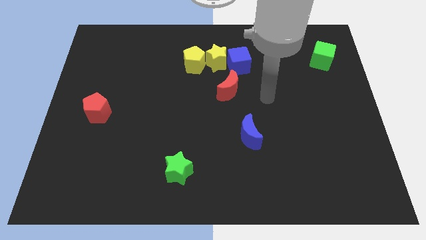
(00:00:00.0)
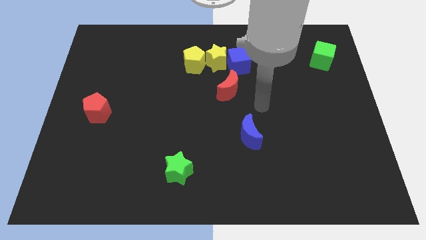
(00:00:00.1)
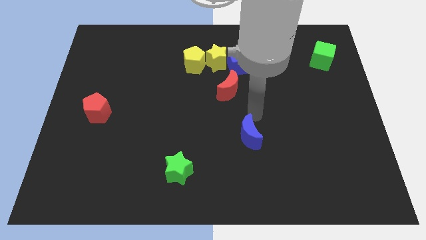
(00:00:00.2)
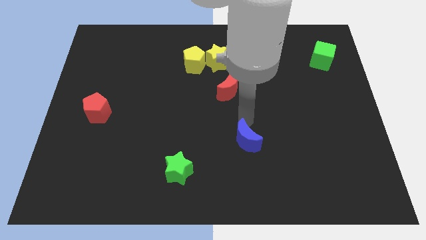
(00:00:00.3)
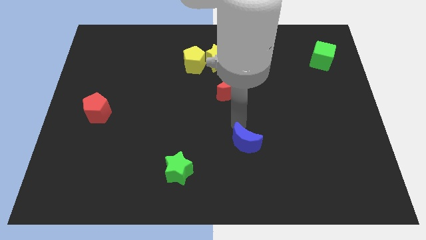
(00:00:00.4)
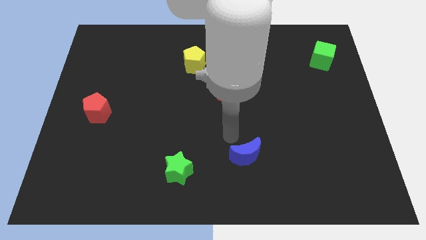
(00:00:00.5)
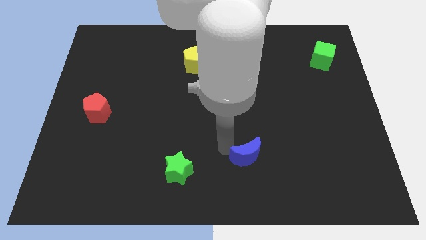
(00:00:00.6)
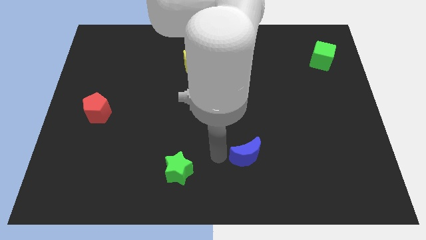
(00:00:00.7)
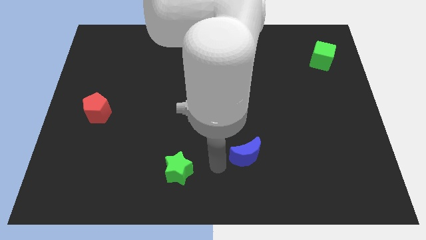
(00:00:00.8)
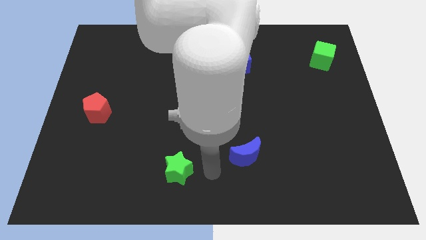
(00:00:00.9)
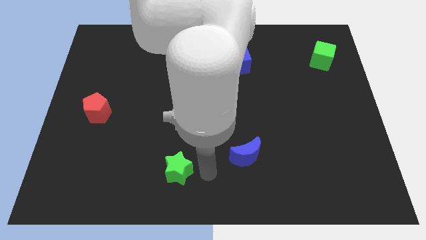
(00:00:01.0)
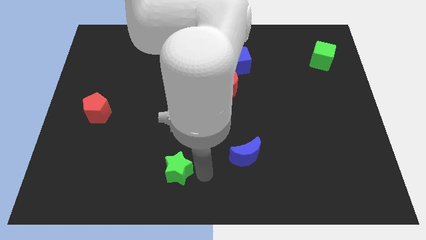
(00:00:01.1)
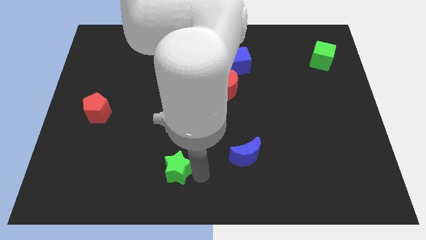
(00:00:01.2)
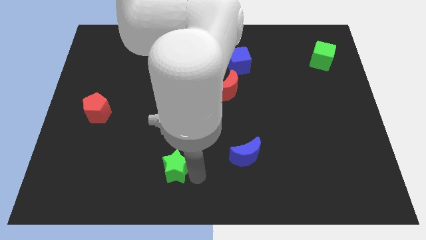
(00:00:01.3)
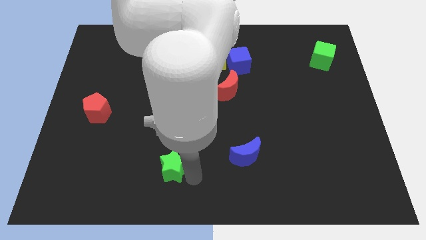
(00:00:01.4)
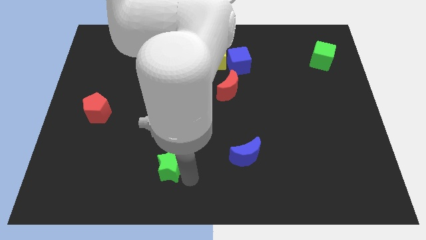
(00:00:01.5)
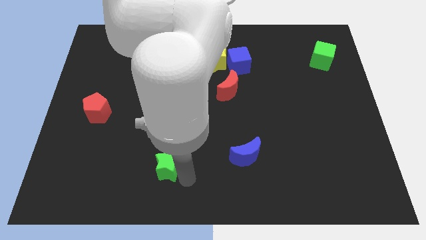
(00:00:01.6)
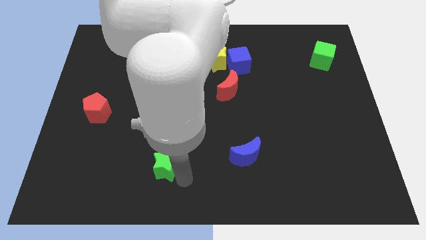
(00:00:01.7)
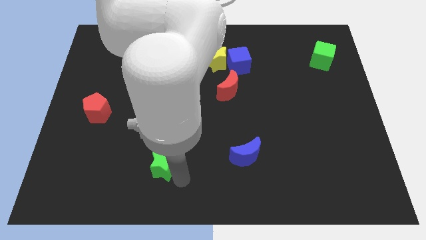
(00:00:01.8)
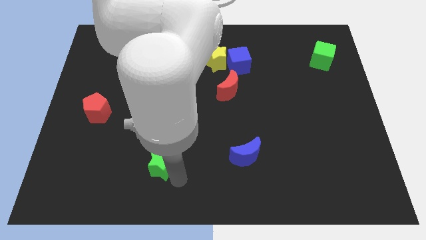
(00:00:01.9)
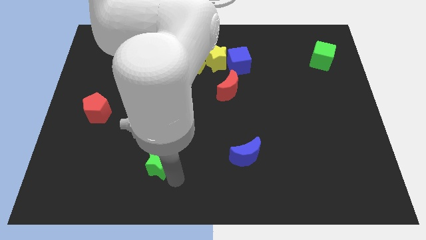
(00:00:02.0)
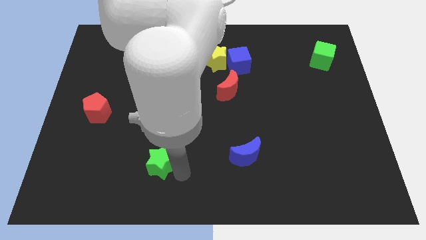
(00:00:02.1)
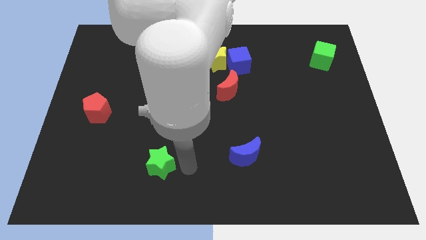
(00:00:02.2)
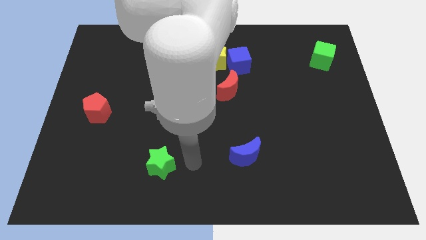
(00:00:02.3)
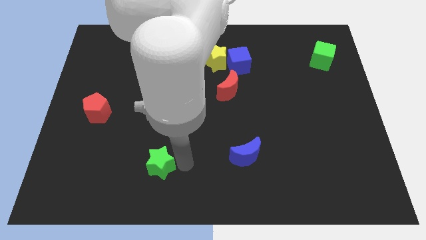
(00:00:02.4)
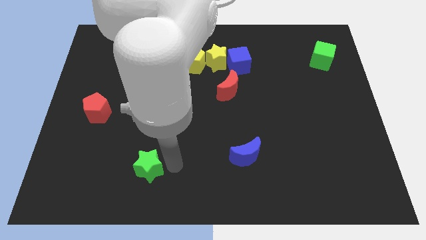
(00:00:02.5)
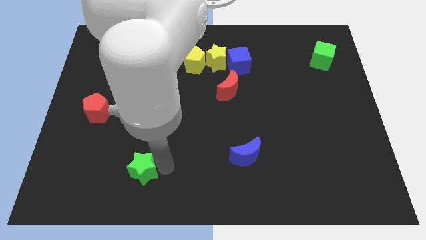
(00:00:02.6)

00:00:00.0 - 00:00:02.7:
push the green star a little bit to the left

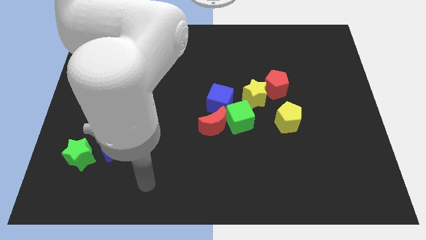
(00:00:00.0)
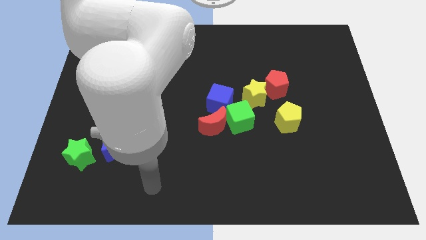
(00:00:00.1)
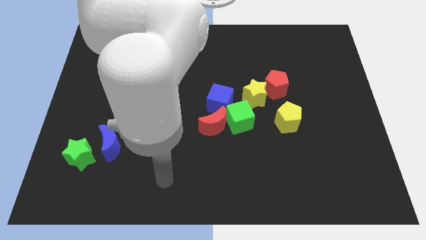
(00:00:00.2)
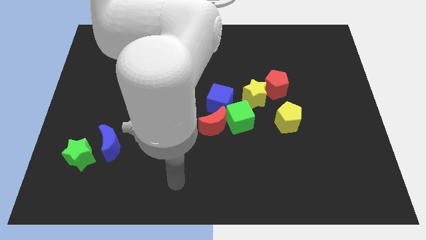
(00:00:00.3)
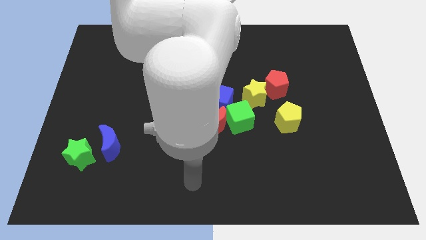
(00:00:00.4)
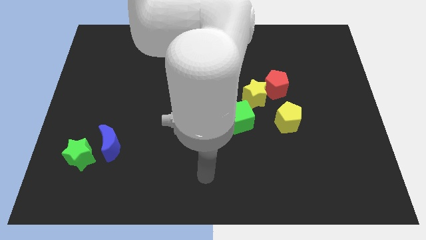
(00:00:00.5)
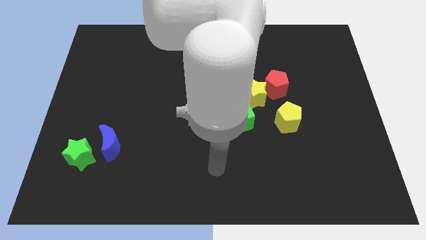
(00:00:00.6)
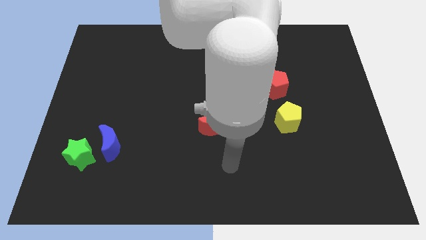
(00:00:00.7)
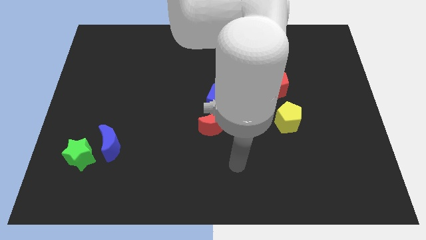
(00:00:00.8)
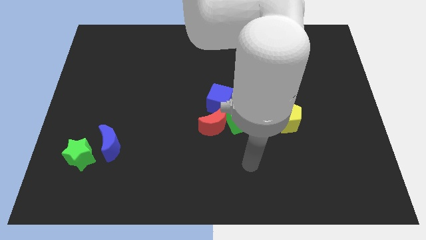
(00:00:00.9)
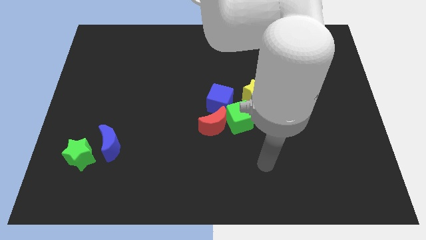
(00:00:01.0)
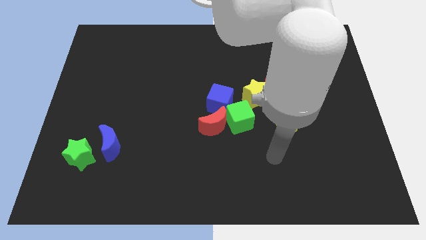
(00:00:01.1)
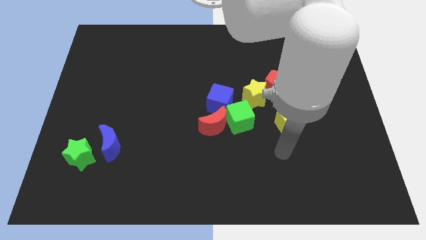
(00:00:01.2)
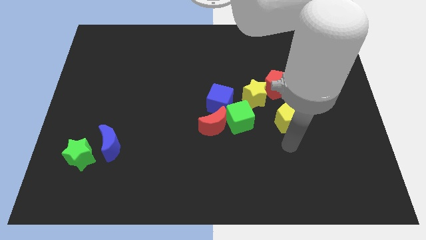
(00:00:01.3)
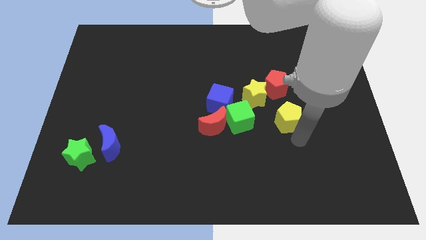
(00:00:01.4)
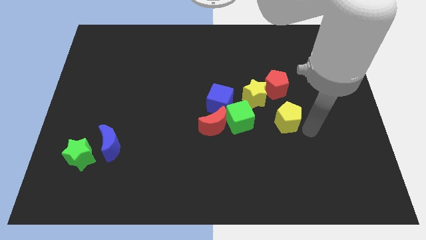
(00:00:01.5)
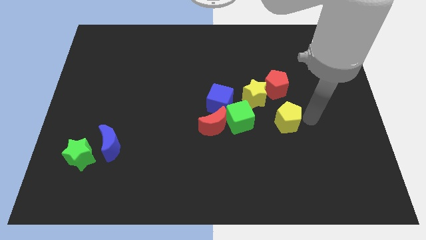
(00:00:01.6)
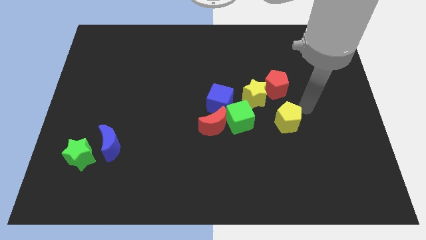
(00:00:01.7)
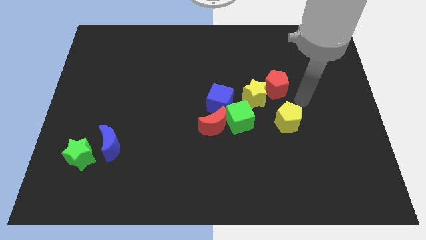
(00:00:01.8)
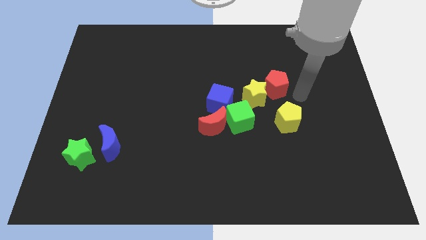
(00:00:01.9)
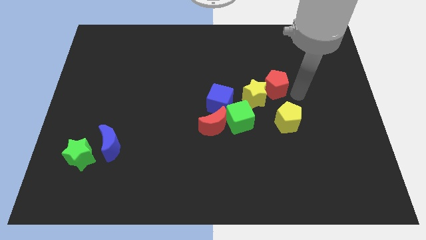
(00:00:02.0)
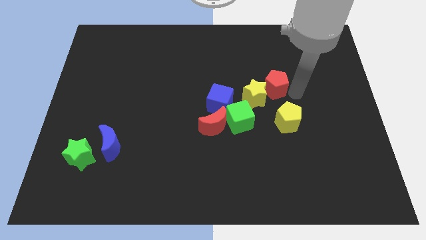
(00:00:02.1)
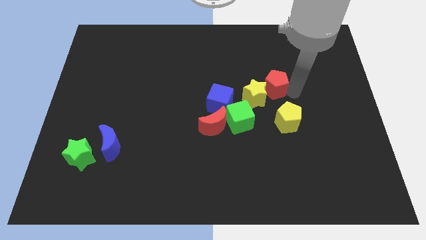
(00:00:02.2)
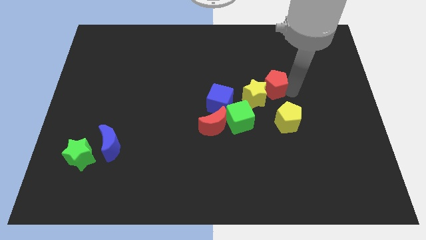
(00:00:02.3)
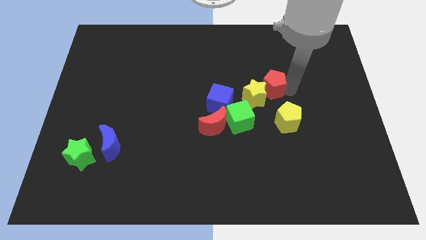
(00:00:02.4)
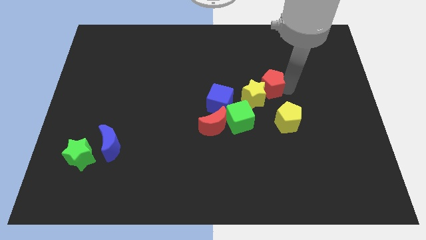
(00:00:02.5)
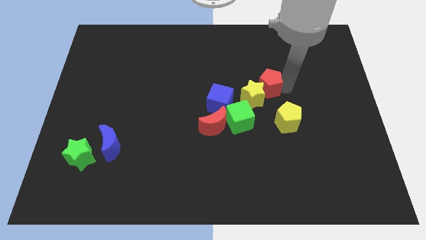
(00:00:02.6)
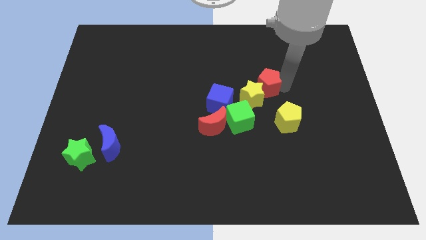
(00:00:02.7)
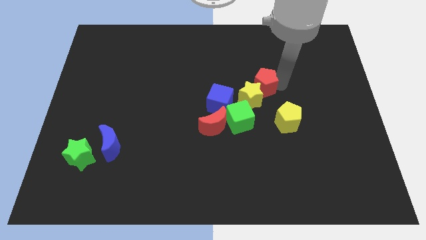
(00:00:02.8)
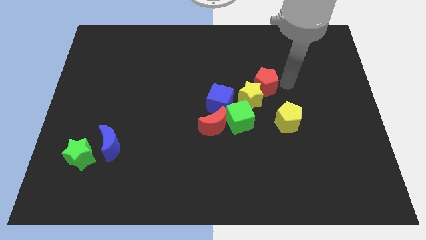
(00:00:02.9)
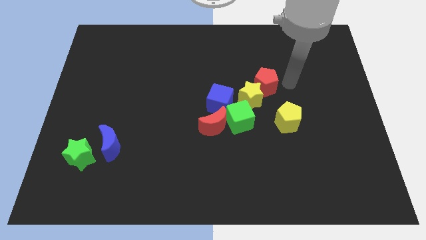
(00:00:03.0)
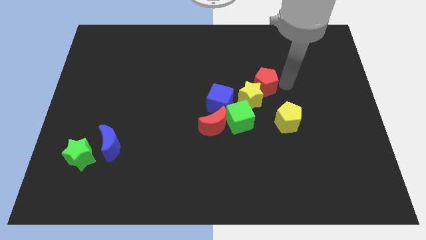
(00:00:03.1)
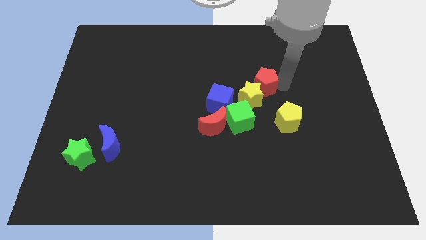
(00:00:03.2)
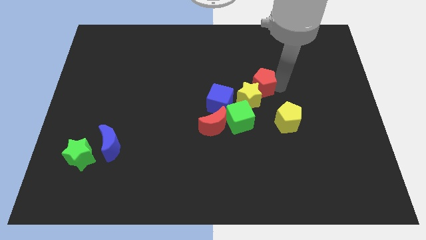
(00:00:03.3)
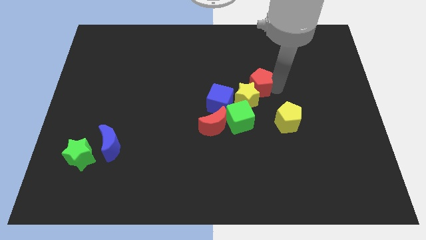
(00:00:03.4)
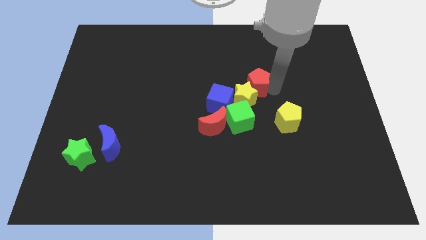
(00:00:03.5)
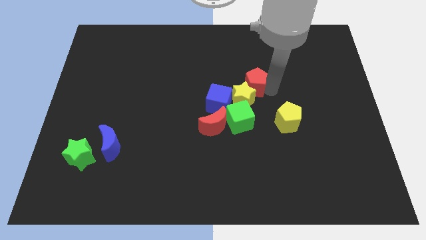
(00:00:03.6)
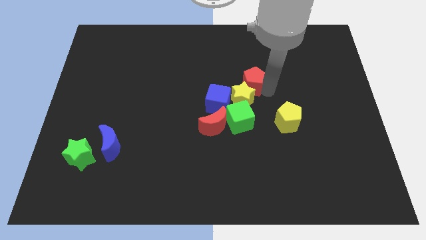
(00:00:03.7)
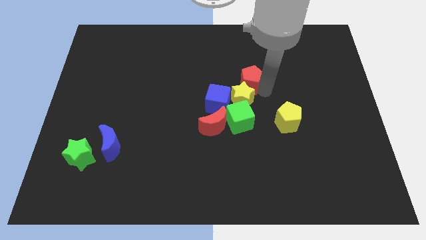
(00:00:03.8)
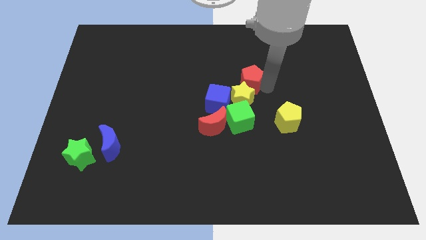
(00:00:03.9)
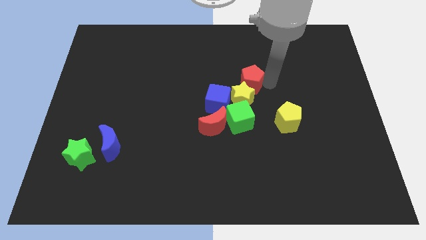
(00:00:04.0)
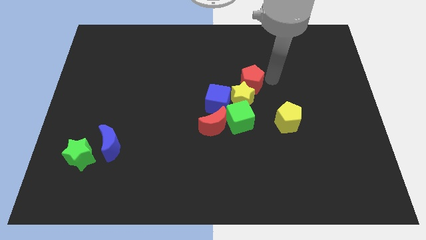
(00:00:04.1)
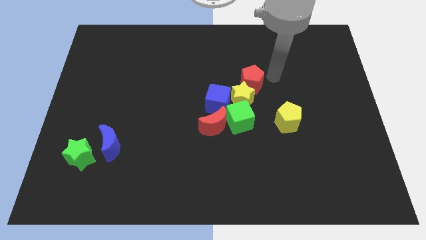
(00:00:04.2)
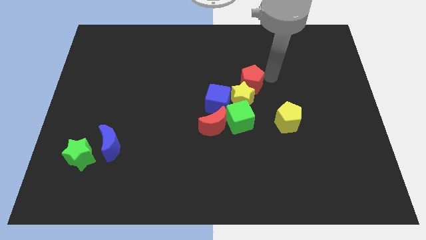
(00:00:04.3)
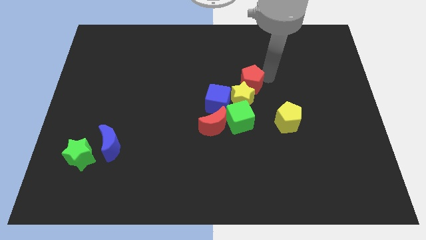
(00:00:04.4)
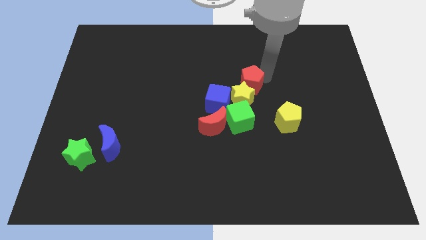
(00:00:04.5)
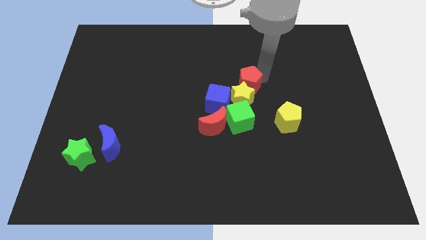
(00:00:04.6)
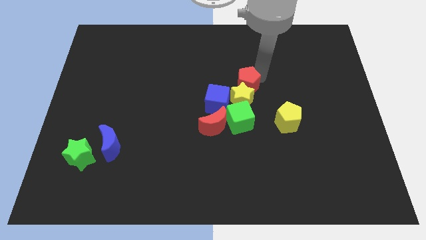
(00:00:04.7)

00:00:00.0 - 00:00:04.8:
push the red pentagon to the left slightly

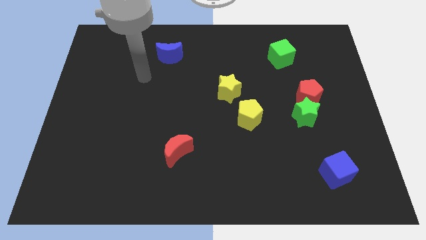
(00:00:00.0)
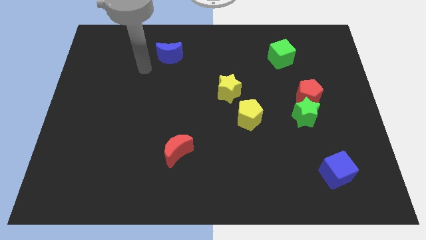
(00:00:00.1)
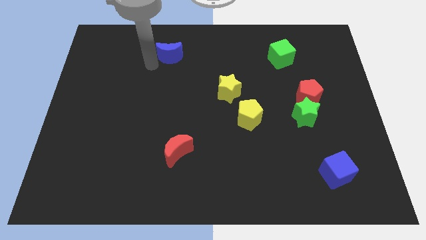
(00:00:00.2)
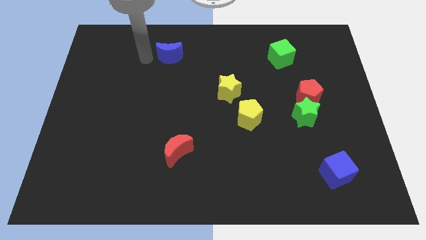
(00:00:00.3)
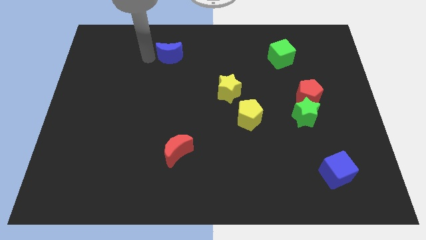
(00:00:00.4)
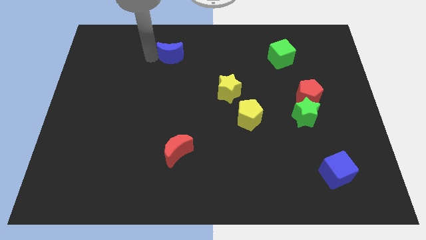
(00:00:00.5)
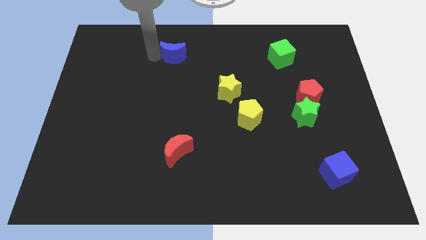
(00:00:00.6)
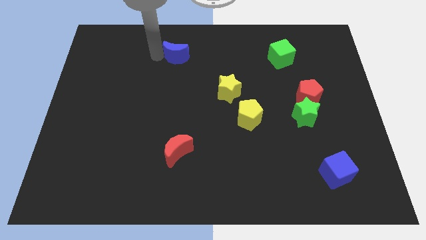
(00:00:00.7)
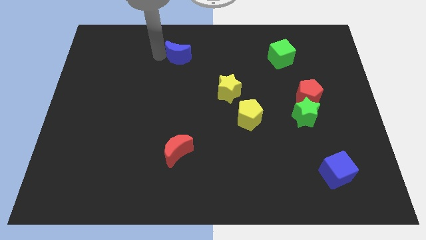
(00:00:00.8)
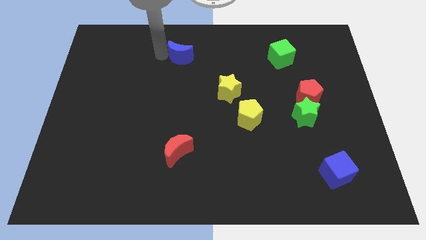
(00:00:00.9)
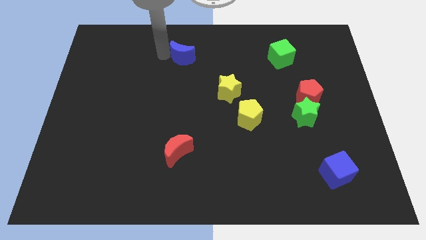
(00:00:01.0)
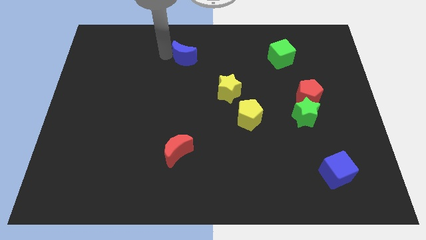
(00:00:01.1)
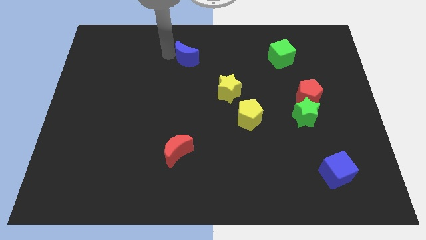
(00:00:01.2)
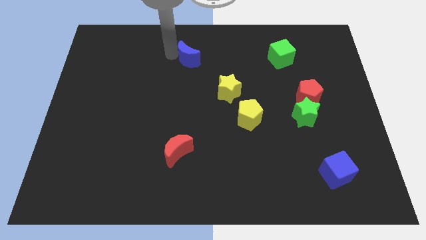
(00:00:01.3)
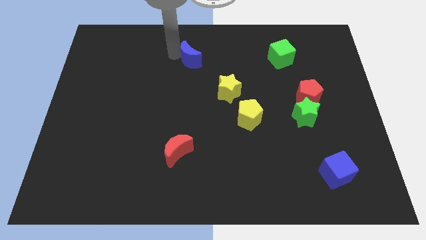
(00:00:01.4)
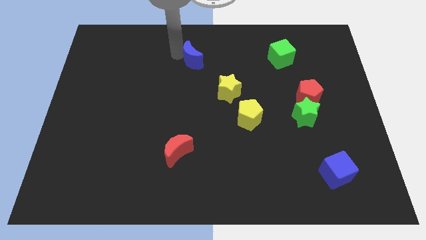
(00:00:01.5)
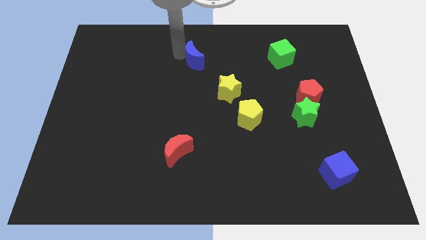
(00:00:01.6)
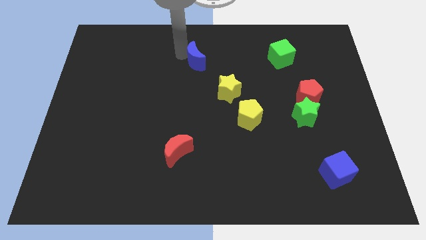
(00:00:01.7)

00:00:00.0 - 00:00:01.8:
slide the blue moon right slightly
